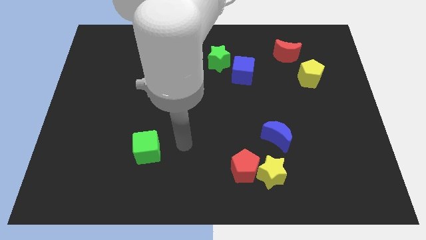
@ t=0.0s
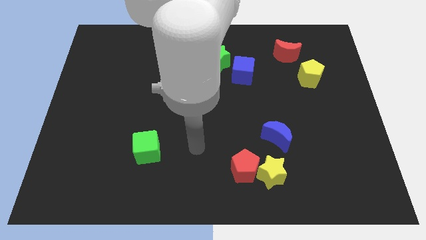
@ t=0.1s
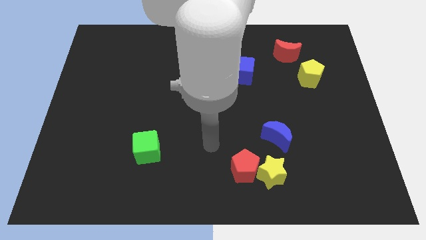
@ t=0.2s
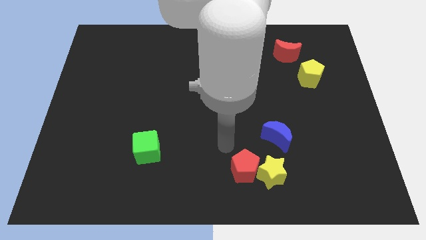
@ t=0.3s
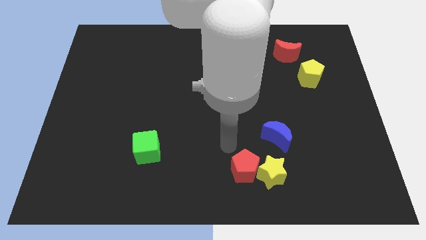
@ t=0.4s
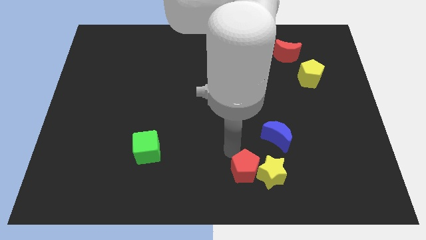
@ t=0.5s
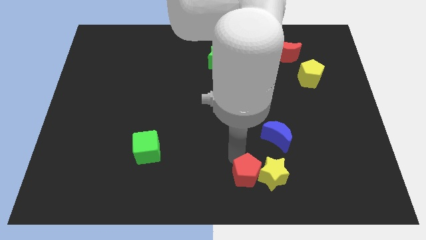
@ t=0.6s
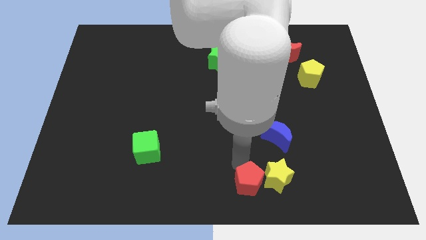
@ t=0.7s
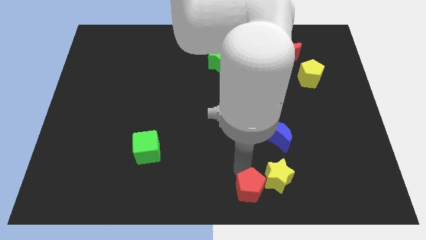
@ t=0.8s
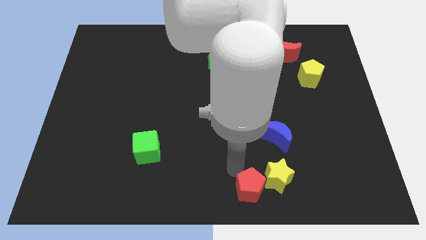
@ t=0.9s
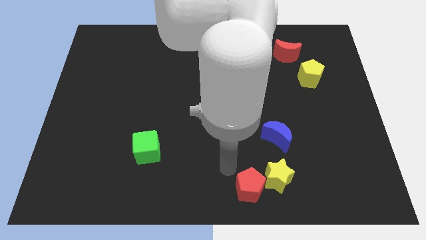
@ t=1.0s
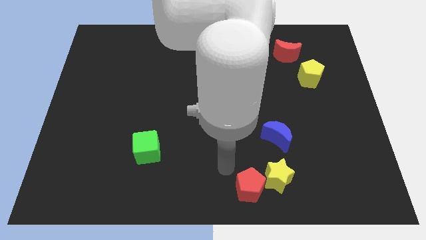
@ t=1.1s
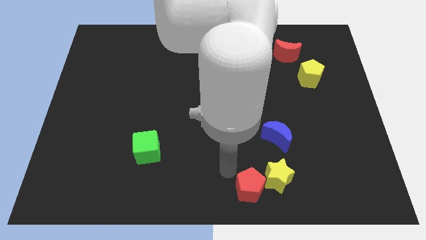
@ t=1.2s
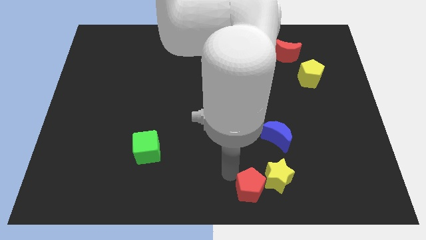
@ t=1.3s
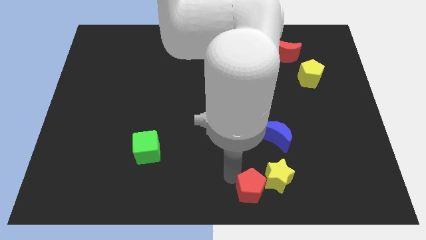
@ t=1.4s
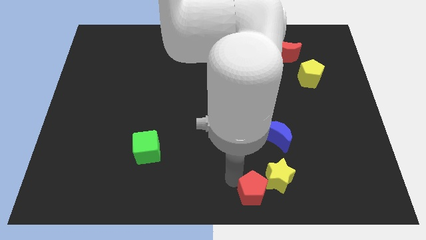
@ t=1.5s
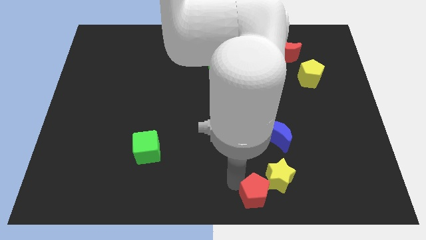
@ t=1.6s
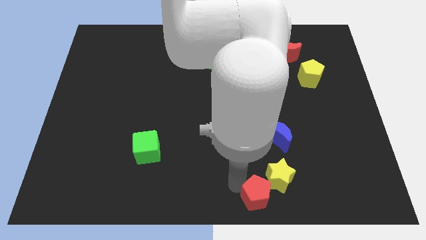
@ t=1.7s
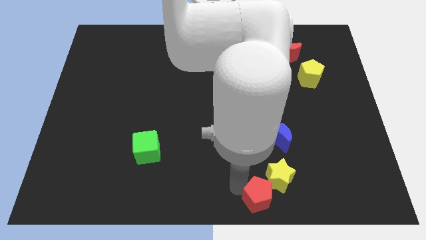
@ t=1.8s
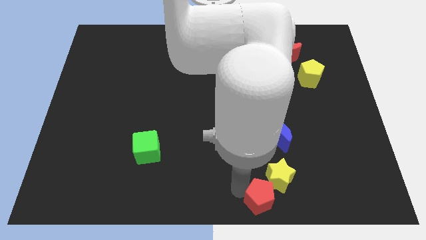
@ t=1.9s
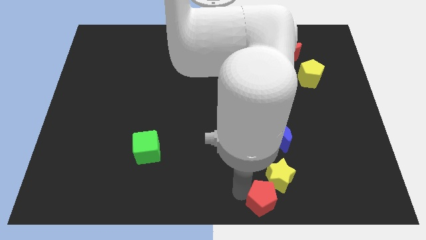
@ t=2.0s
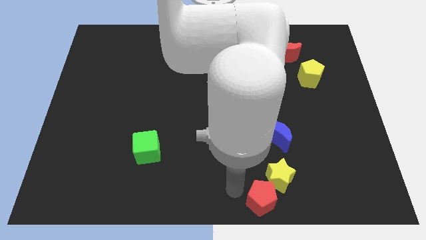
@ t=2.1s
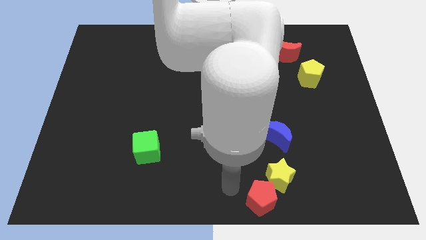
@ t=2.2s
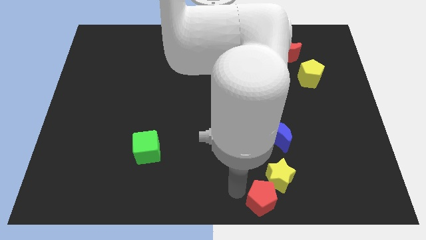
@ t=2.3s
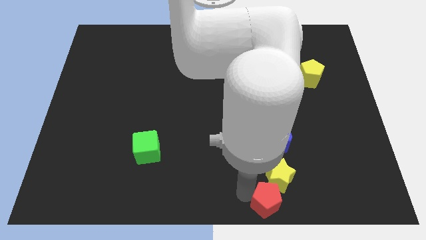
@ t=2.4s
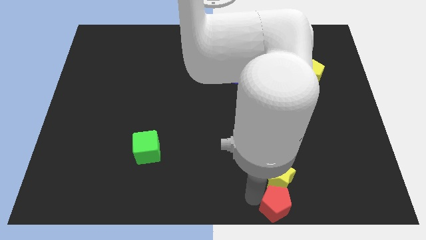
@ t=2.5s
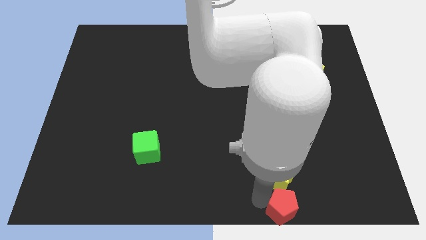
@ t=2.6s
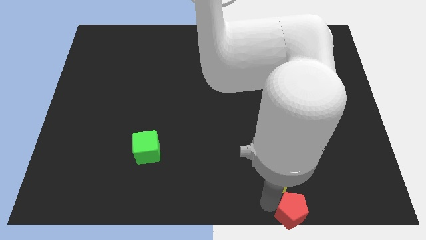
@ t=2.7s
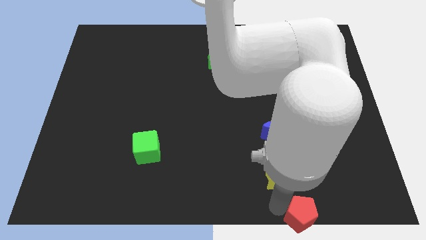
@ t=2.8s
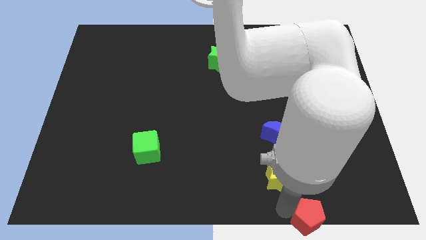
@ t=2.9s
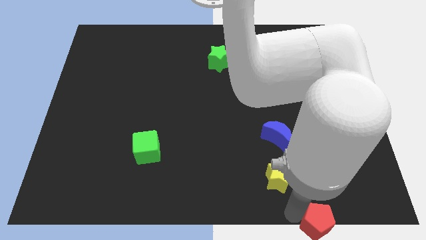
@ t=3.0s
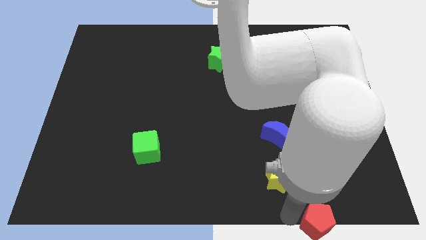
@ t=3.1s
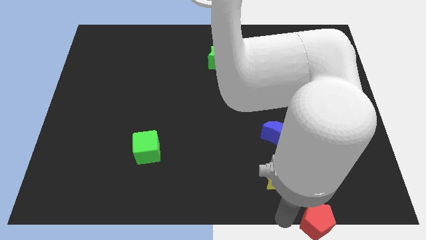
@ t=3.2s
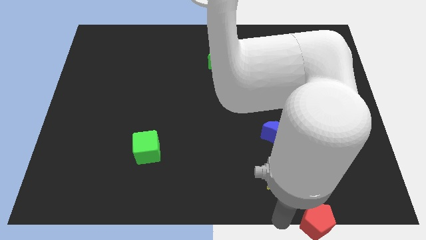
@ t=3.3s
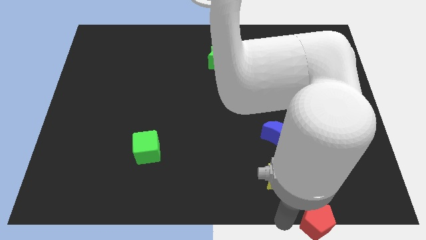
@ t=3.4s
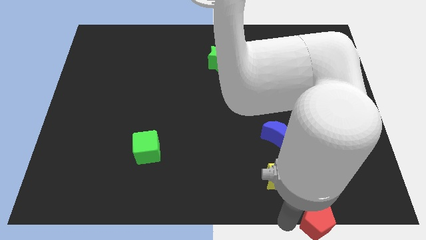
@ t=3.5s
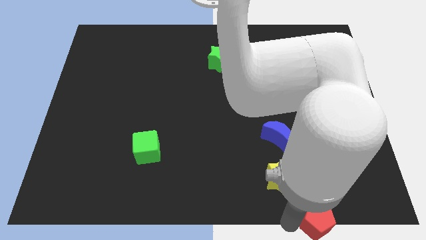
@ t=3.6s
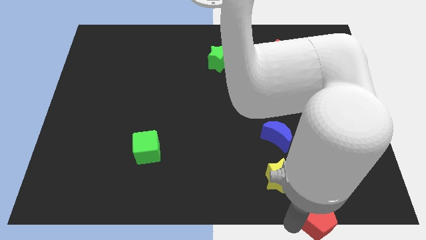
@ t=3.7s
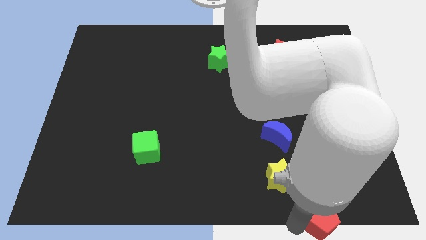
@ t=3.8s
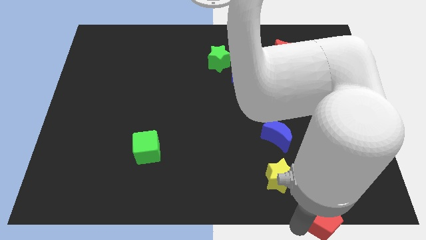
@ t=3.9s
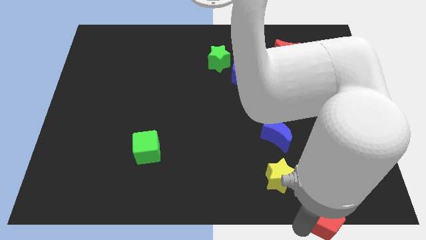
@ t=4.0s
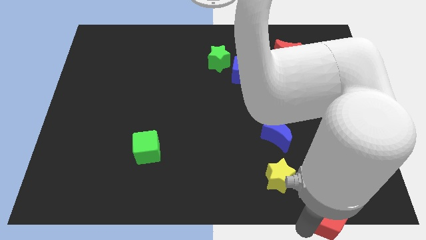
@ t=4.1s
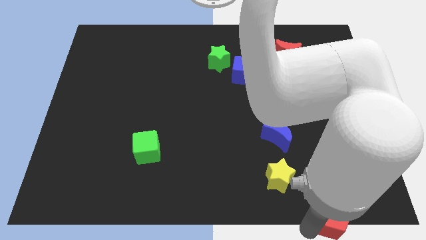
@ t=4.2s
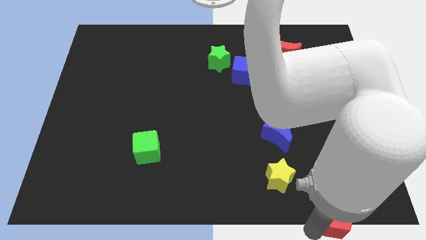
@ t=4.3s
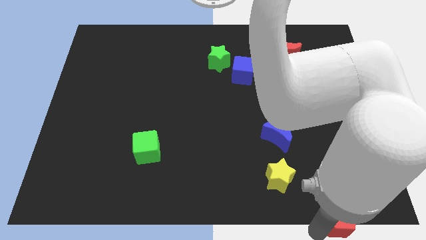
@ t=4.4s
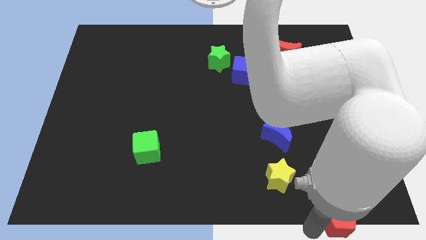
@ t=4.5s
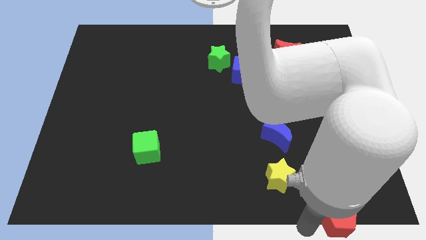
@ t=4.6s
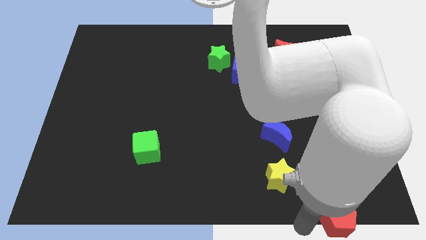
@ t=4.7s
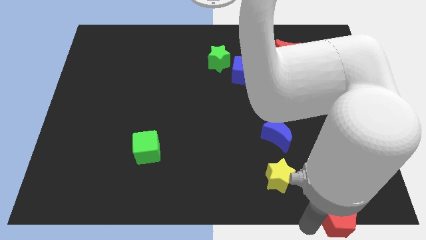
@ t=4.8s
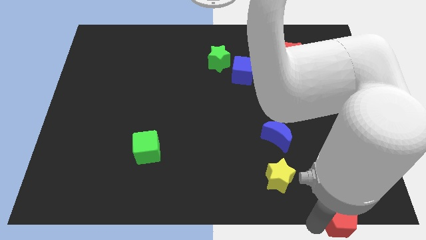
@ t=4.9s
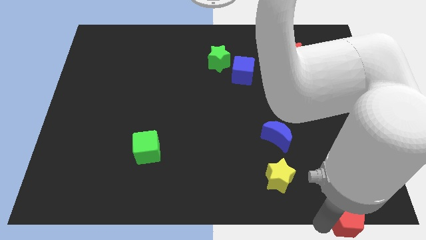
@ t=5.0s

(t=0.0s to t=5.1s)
put the red pentagon to the bottom right

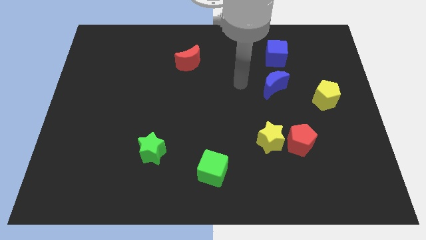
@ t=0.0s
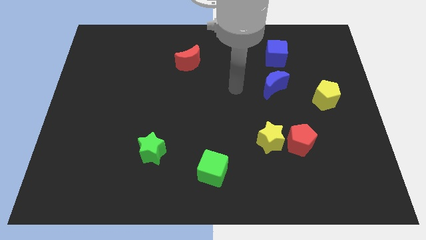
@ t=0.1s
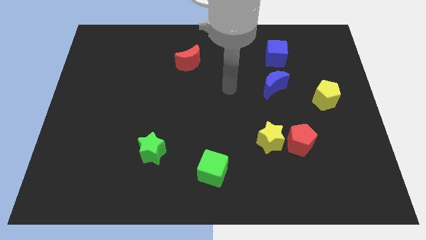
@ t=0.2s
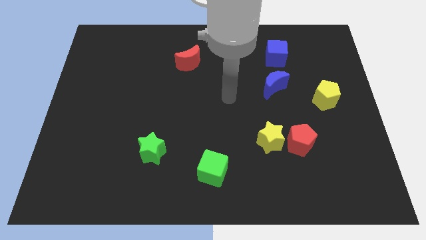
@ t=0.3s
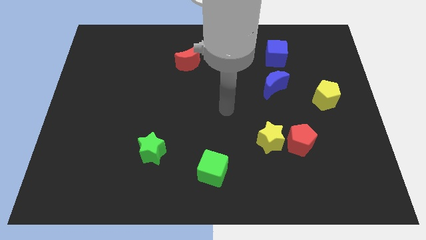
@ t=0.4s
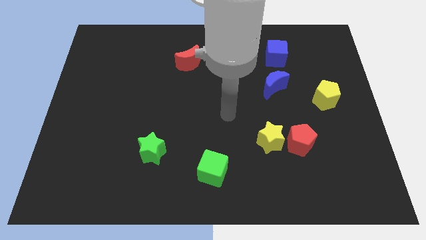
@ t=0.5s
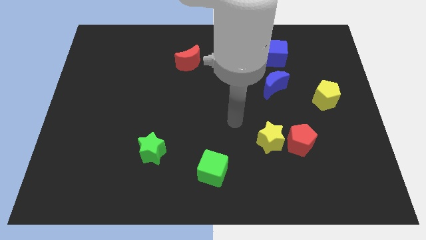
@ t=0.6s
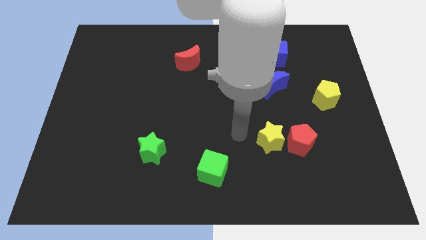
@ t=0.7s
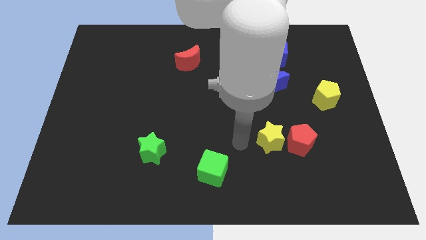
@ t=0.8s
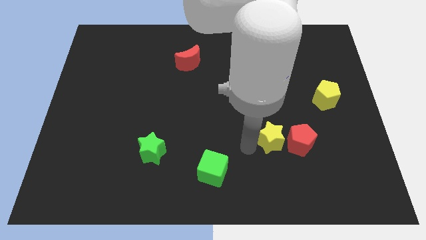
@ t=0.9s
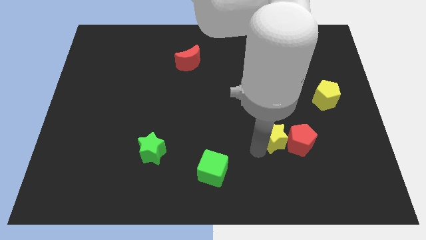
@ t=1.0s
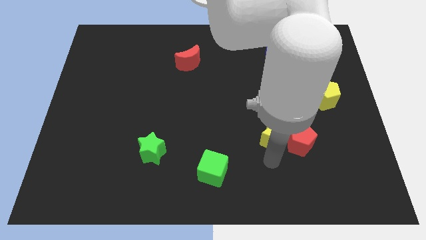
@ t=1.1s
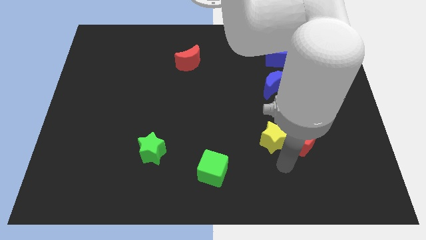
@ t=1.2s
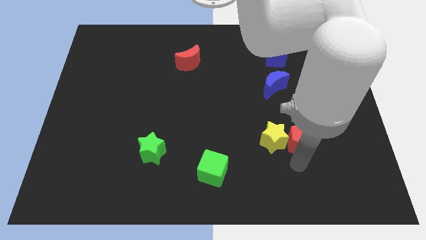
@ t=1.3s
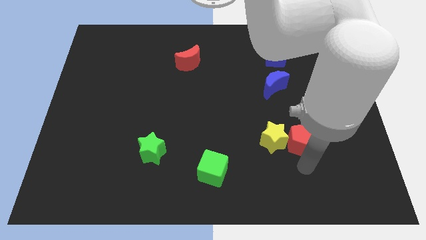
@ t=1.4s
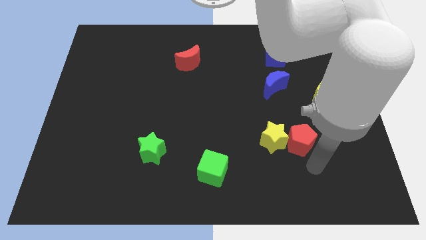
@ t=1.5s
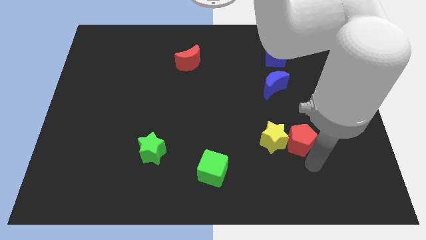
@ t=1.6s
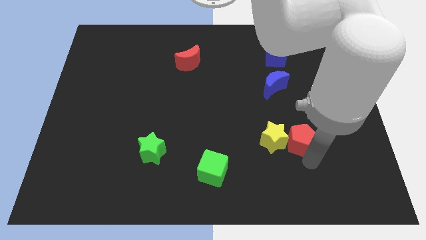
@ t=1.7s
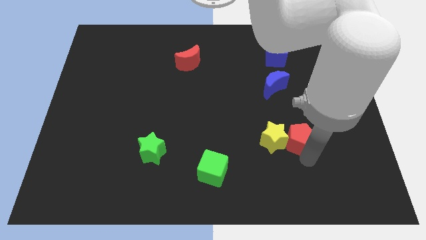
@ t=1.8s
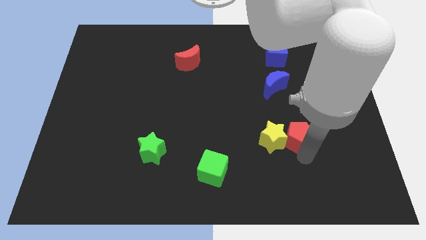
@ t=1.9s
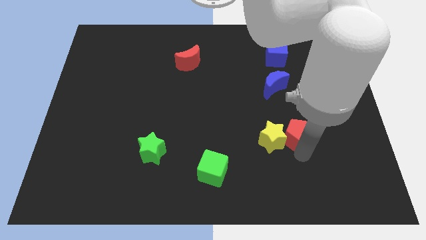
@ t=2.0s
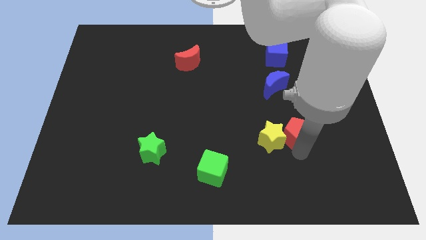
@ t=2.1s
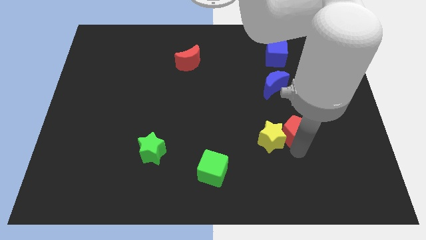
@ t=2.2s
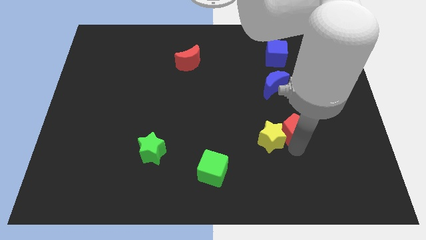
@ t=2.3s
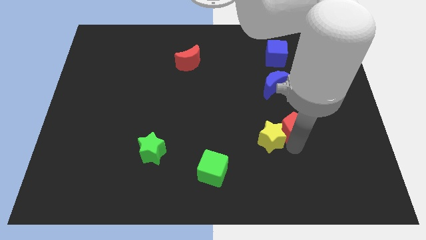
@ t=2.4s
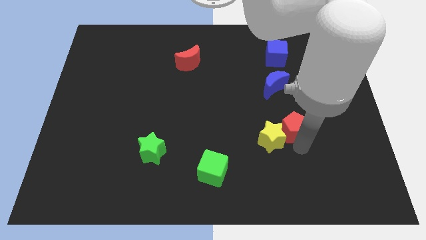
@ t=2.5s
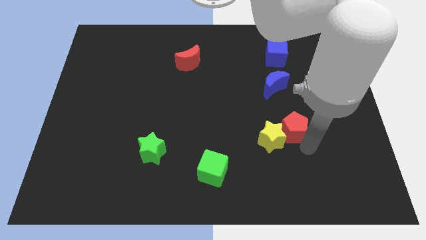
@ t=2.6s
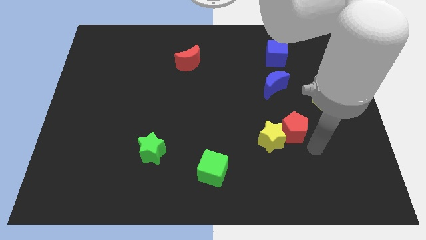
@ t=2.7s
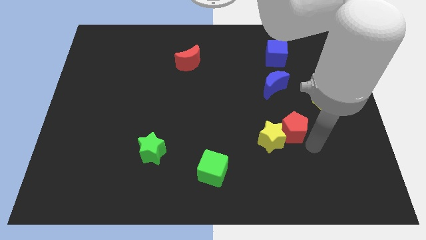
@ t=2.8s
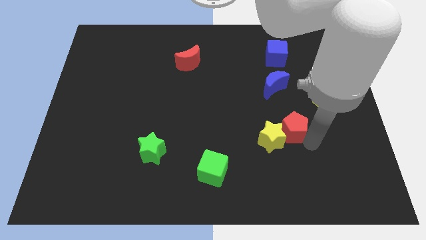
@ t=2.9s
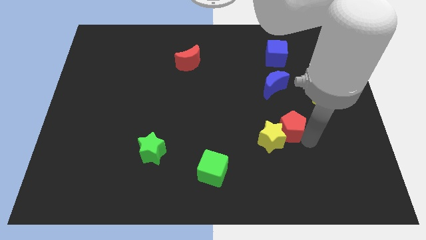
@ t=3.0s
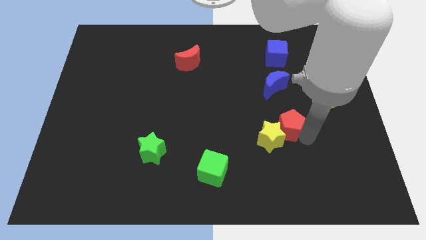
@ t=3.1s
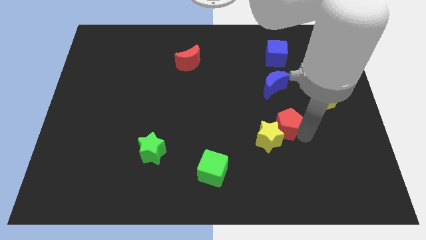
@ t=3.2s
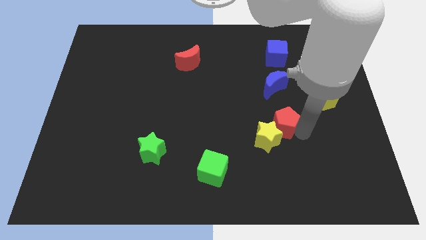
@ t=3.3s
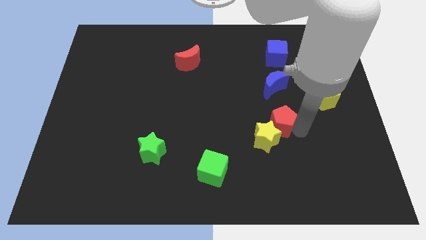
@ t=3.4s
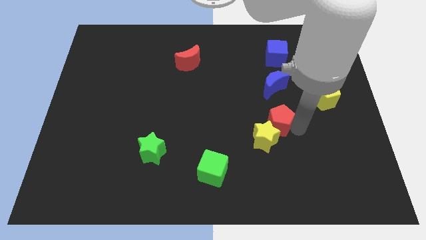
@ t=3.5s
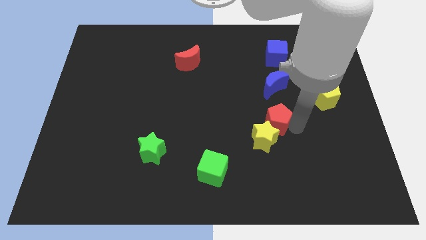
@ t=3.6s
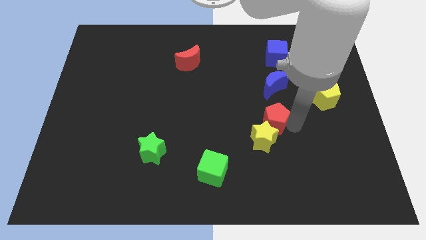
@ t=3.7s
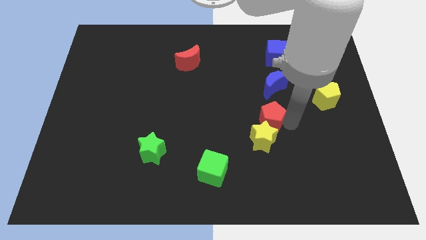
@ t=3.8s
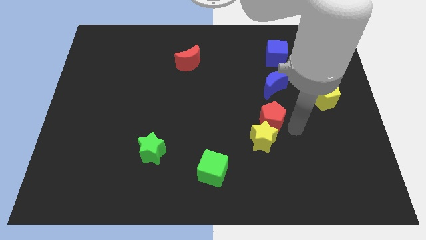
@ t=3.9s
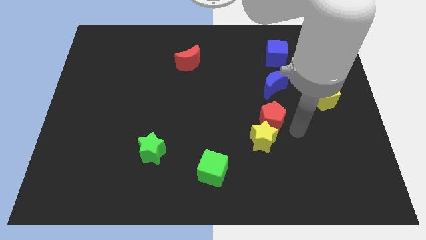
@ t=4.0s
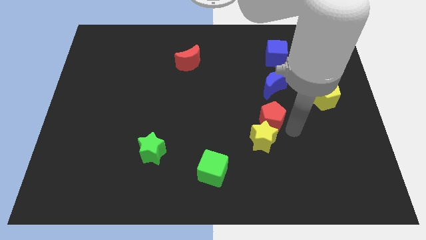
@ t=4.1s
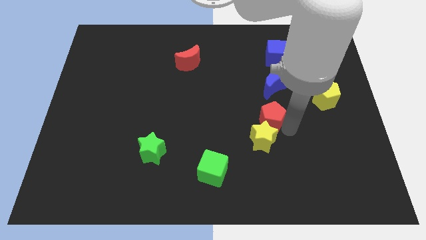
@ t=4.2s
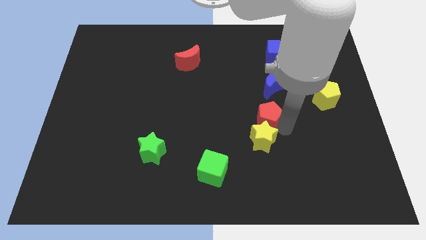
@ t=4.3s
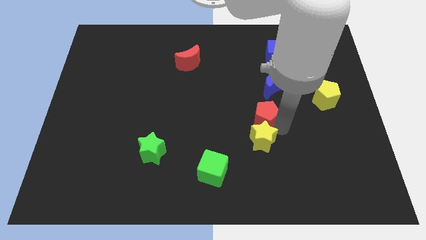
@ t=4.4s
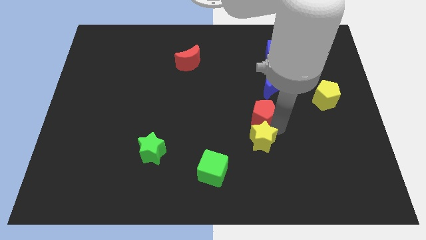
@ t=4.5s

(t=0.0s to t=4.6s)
push the red pentagon to the middle of the board
